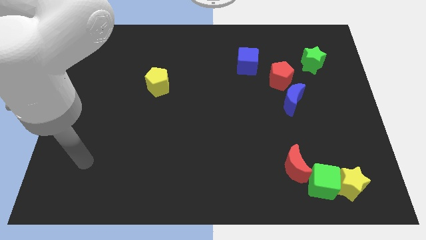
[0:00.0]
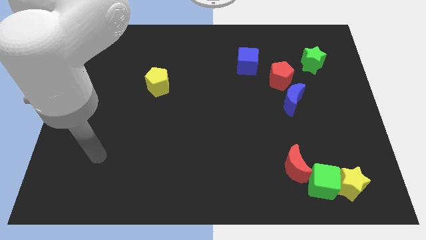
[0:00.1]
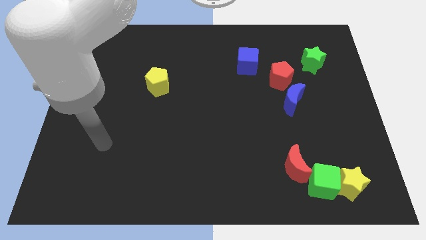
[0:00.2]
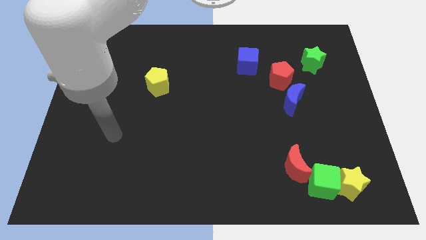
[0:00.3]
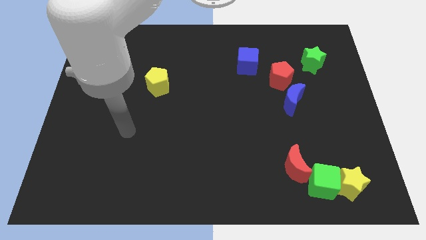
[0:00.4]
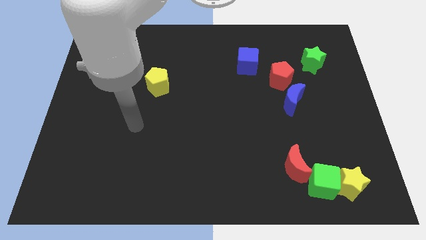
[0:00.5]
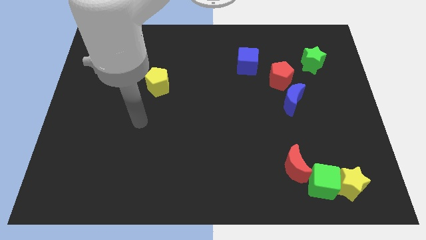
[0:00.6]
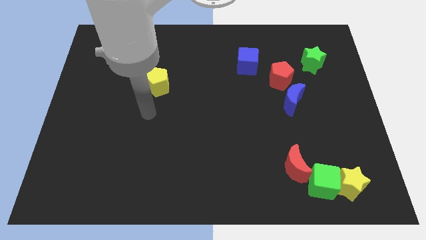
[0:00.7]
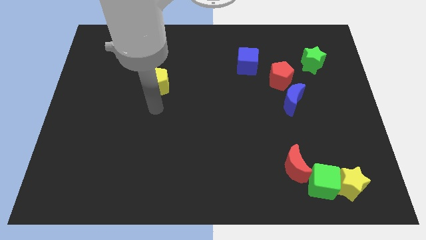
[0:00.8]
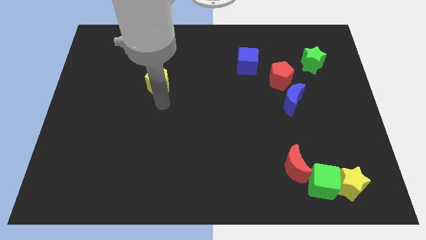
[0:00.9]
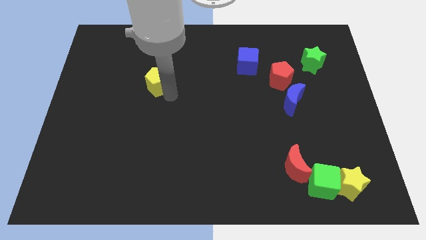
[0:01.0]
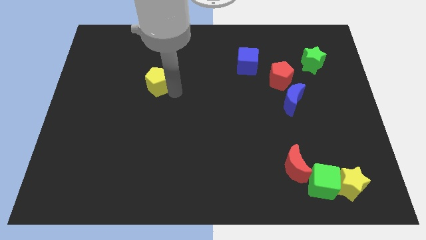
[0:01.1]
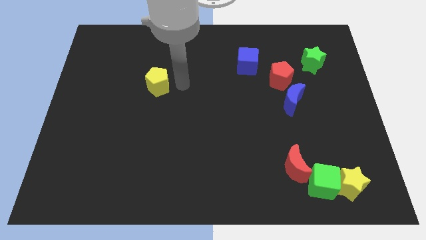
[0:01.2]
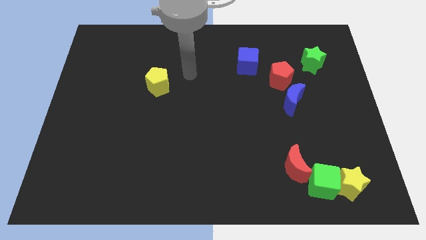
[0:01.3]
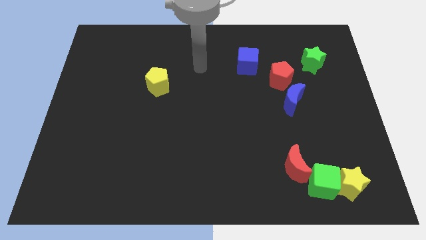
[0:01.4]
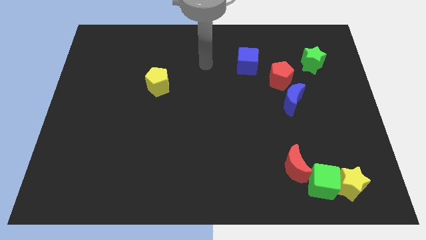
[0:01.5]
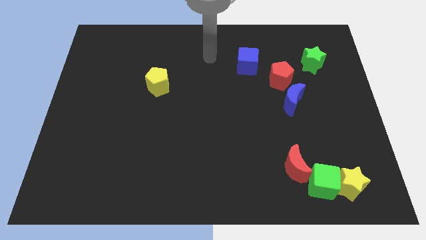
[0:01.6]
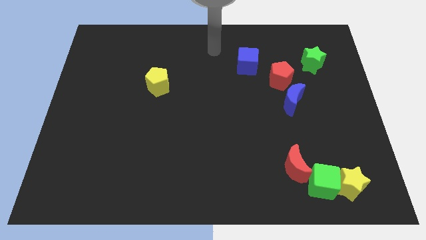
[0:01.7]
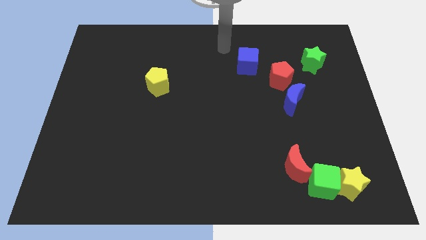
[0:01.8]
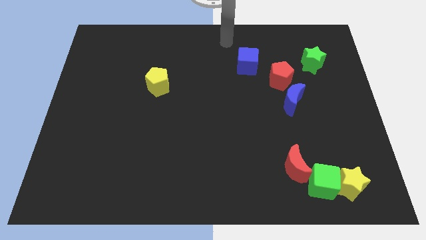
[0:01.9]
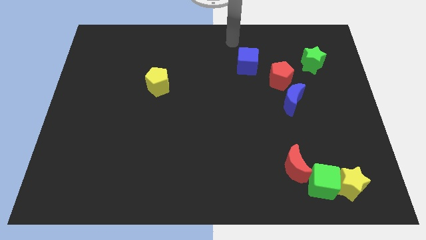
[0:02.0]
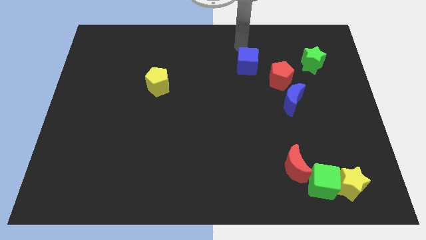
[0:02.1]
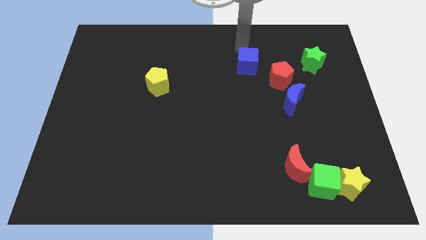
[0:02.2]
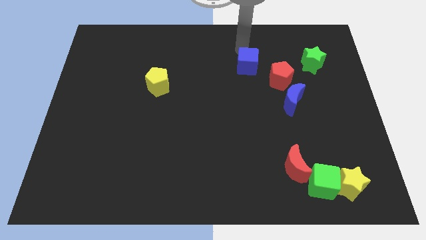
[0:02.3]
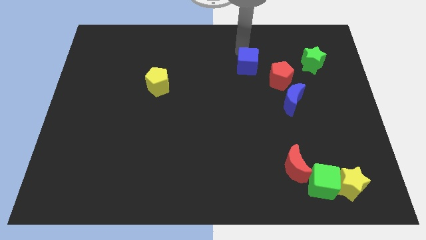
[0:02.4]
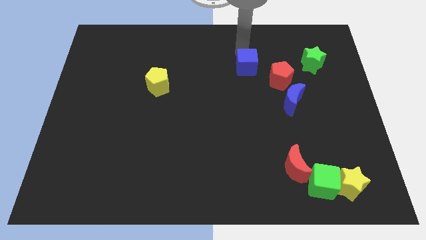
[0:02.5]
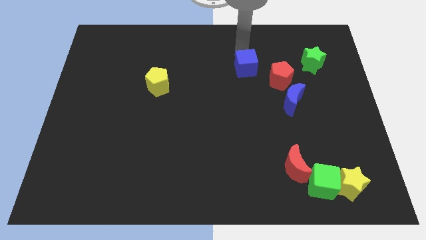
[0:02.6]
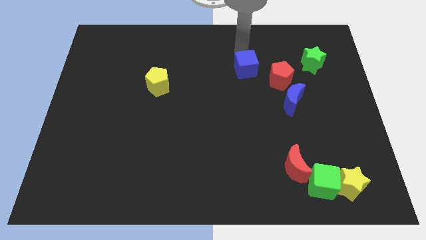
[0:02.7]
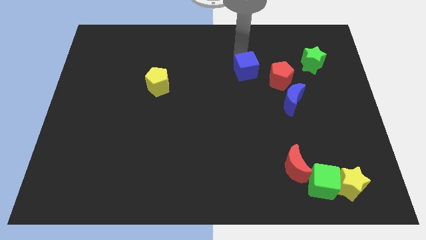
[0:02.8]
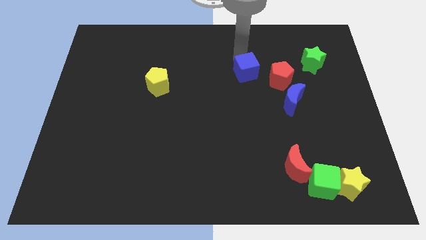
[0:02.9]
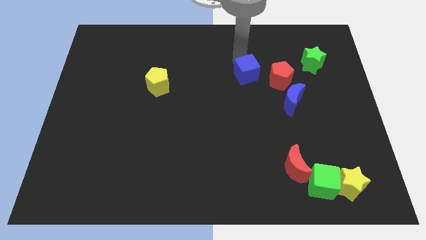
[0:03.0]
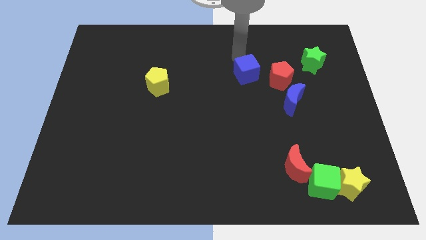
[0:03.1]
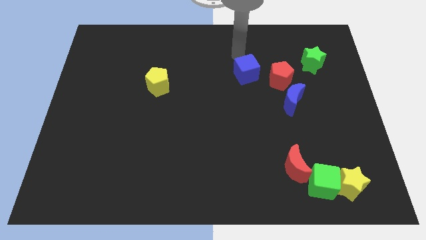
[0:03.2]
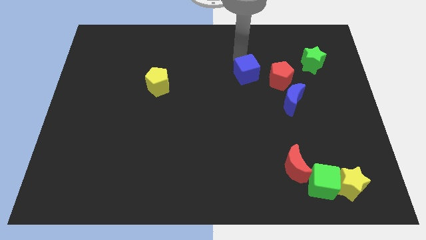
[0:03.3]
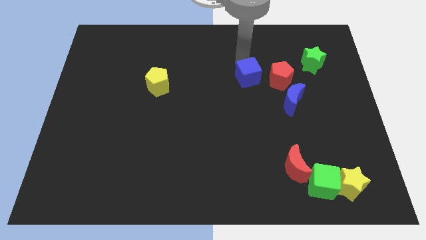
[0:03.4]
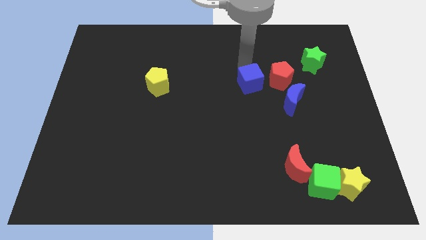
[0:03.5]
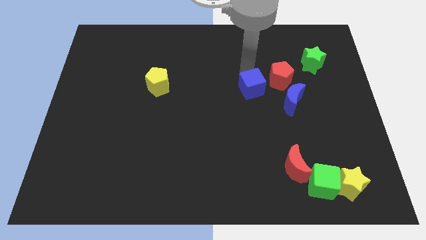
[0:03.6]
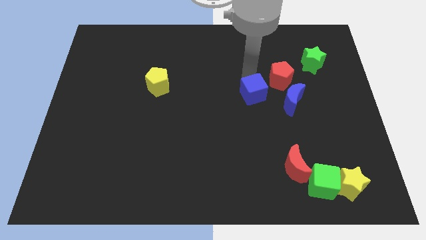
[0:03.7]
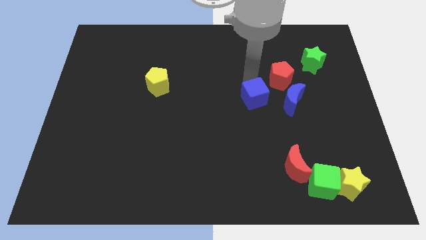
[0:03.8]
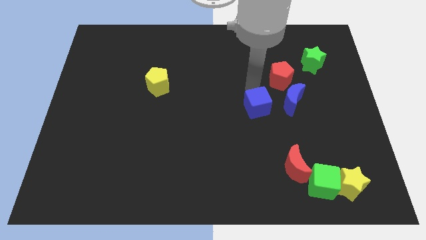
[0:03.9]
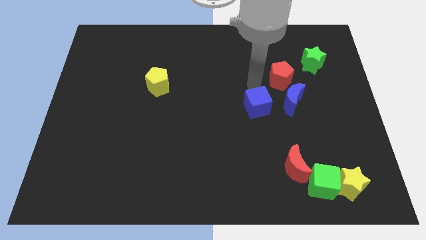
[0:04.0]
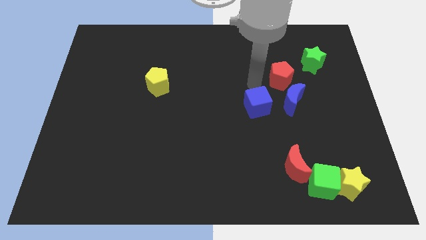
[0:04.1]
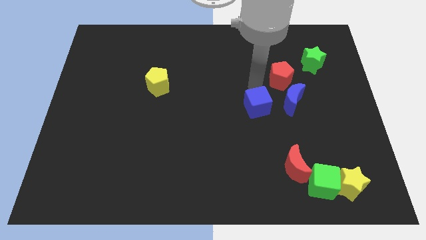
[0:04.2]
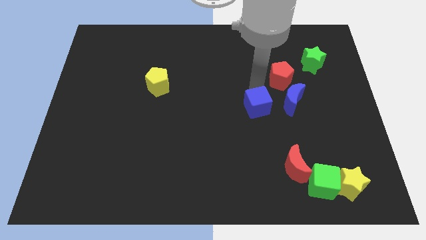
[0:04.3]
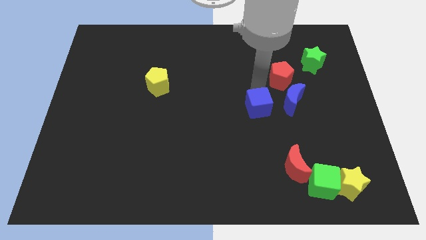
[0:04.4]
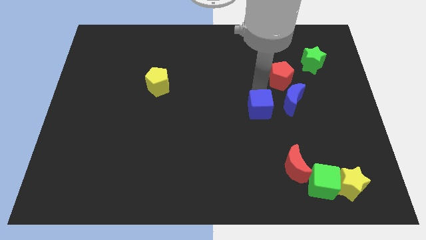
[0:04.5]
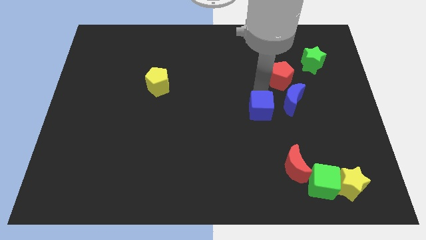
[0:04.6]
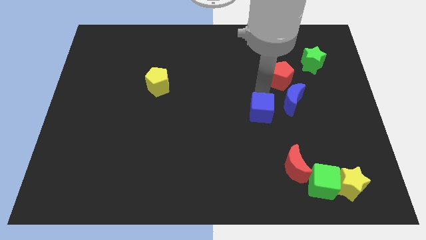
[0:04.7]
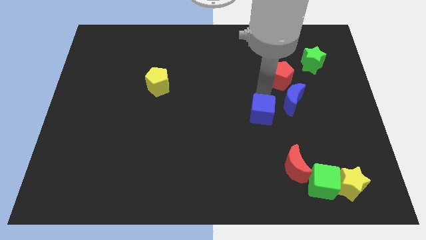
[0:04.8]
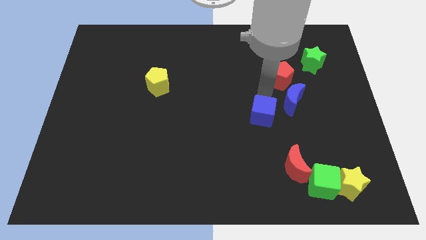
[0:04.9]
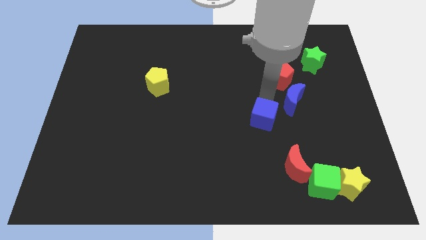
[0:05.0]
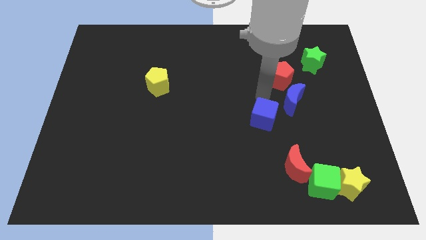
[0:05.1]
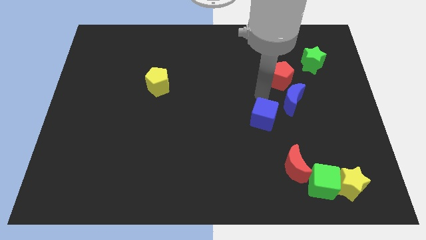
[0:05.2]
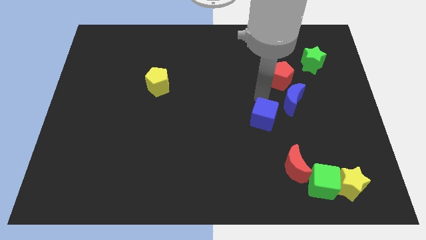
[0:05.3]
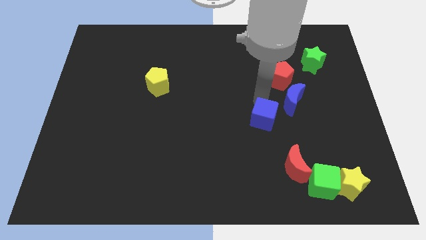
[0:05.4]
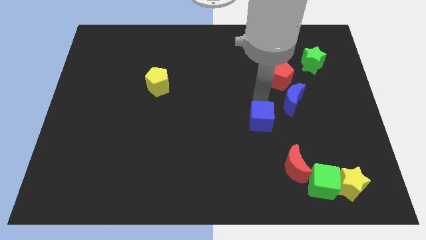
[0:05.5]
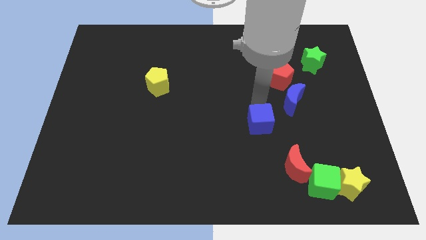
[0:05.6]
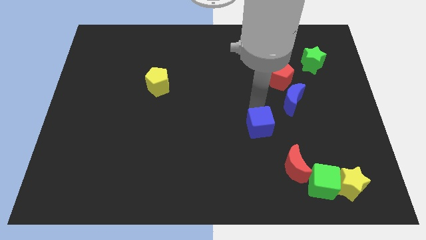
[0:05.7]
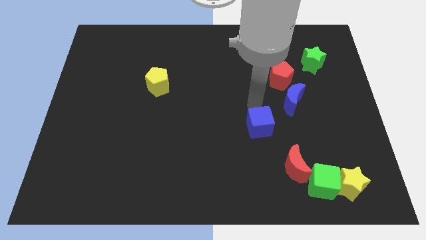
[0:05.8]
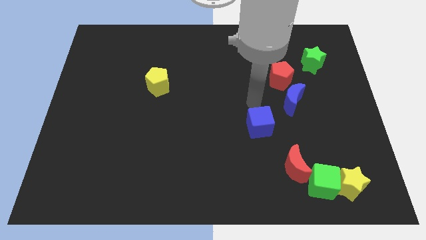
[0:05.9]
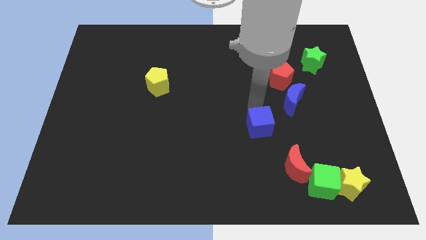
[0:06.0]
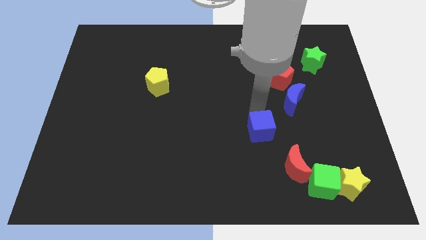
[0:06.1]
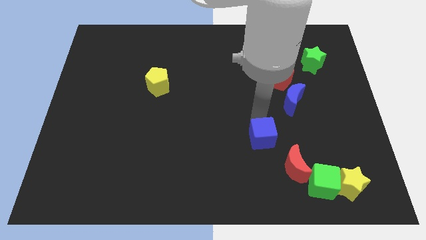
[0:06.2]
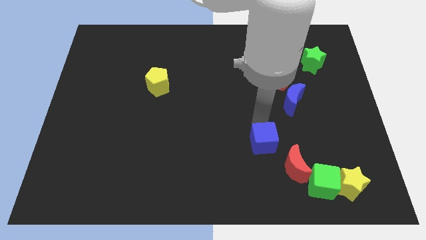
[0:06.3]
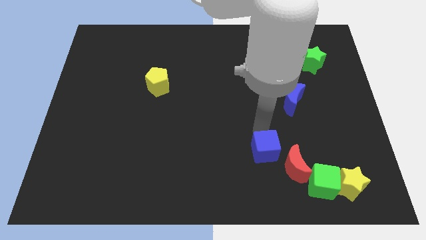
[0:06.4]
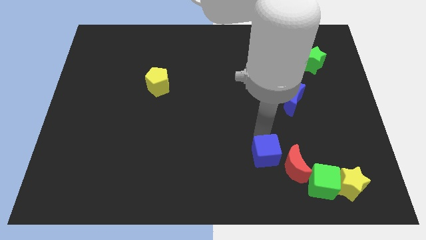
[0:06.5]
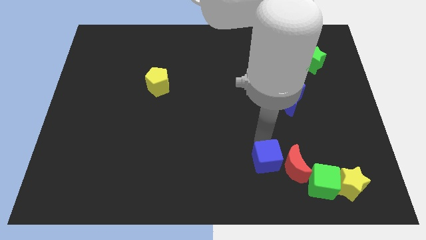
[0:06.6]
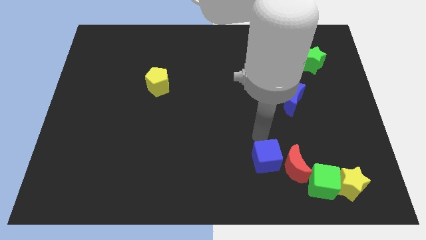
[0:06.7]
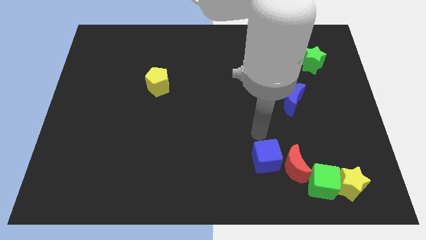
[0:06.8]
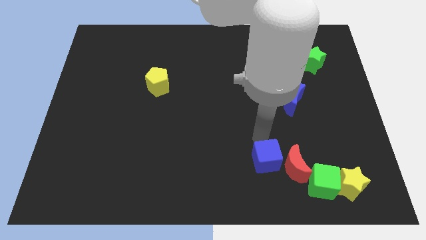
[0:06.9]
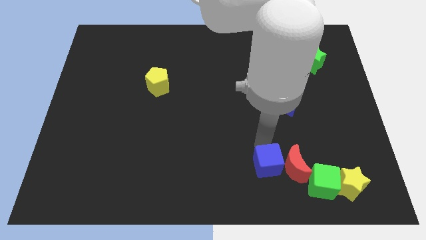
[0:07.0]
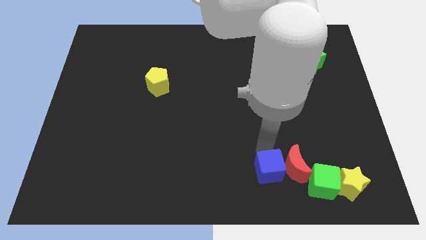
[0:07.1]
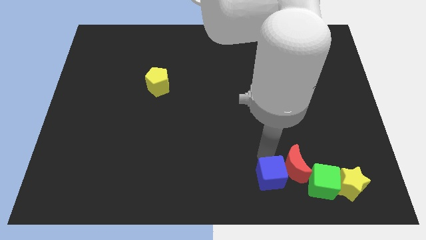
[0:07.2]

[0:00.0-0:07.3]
move the blue cube to the left of the yellow star
